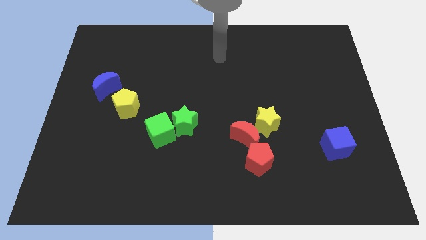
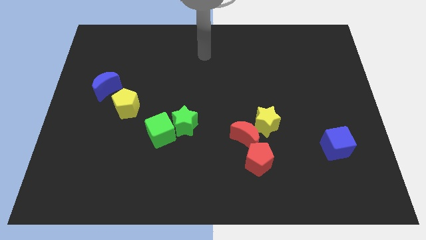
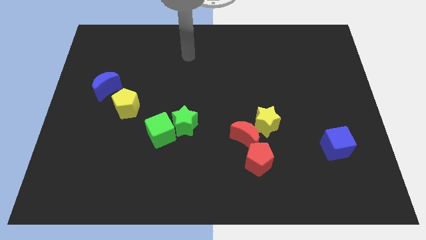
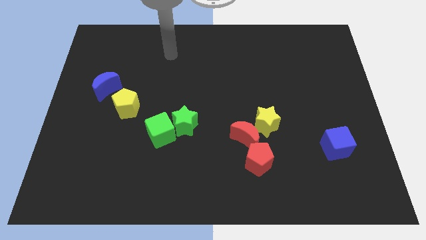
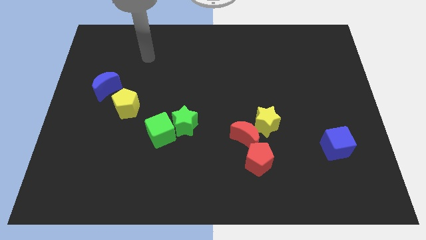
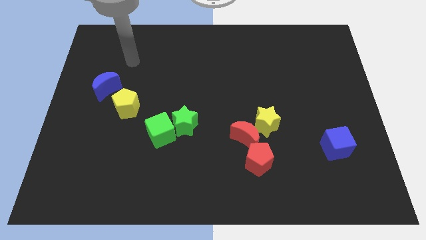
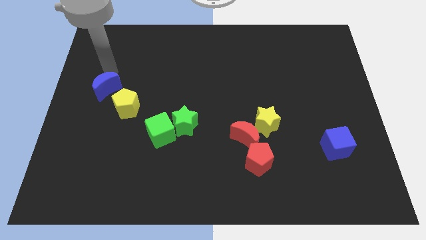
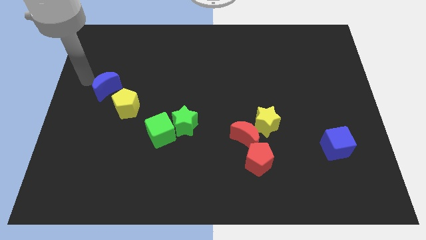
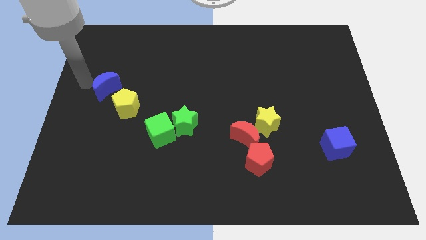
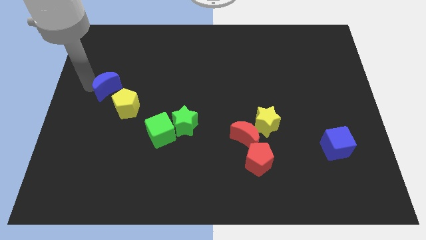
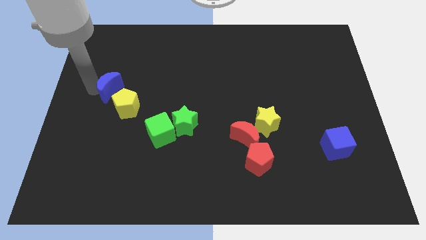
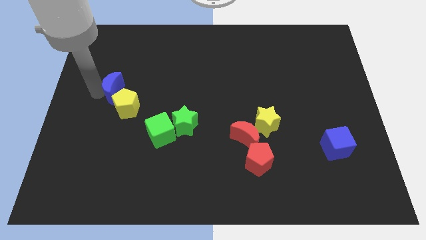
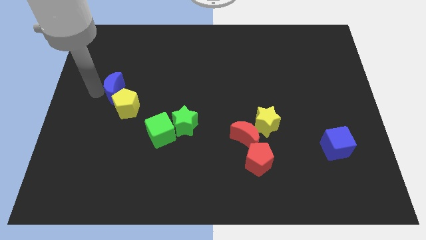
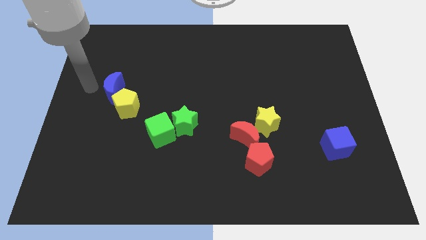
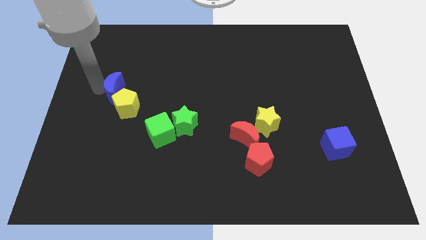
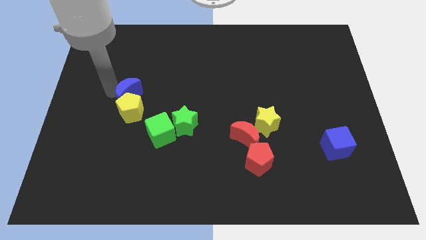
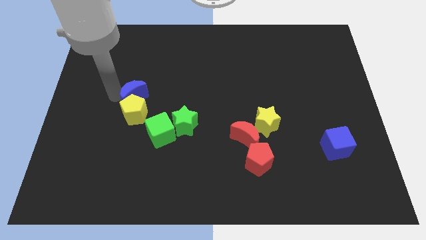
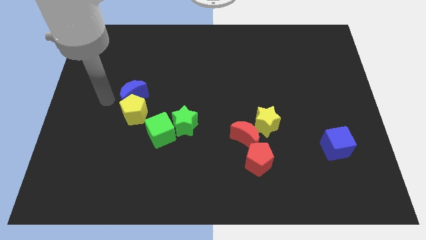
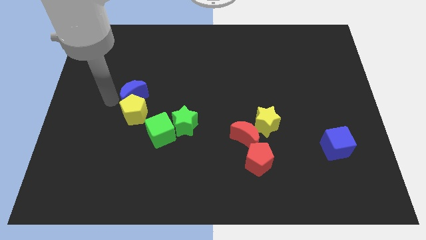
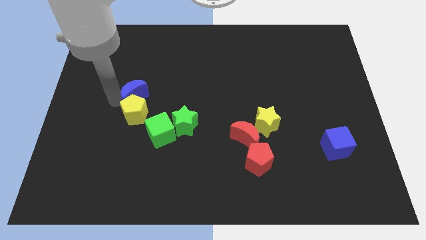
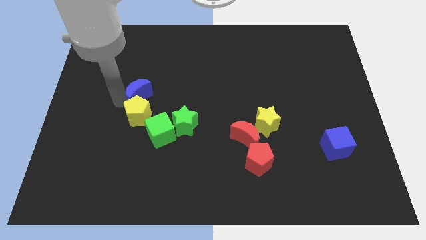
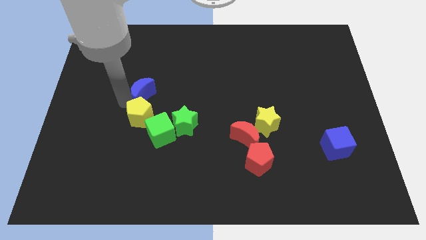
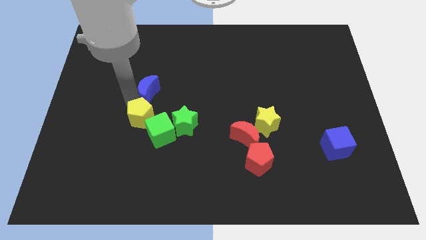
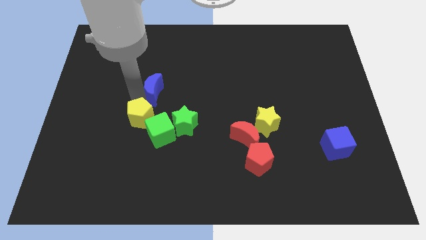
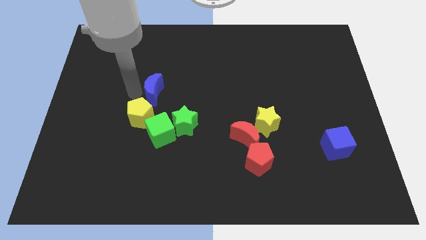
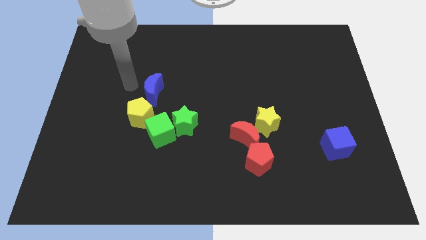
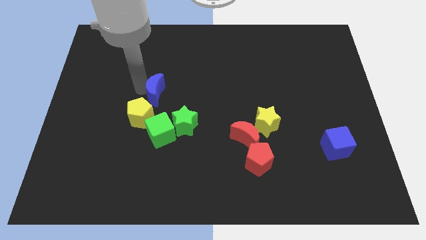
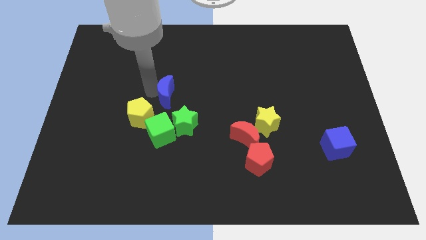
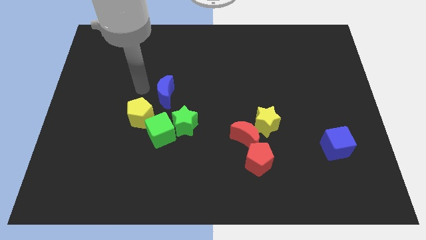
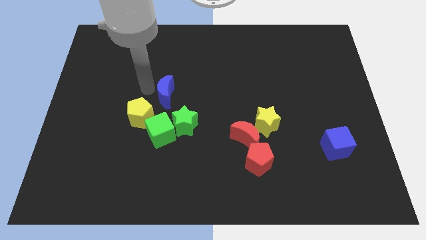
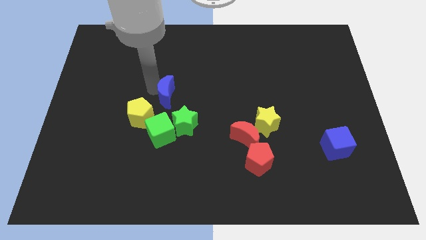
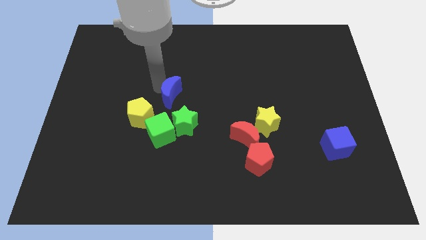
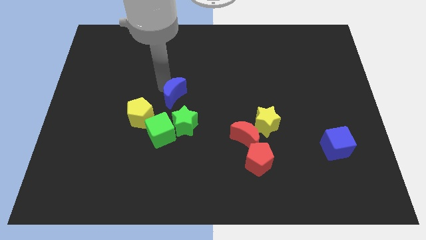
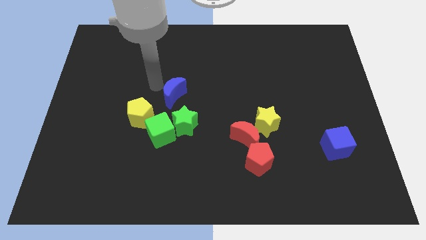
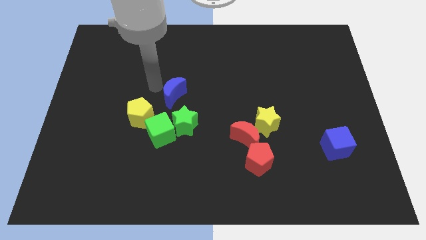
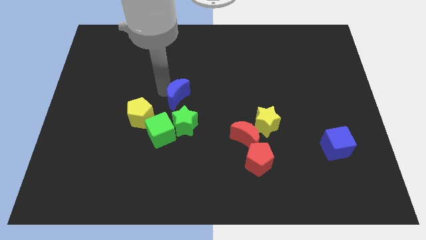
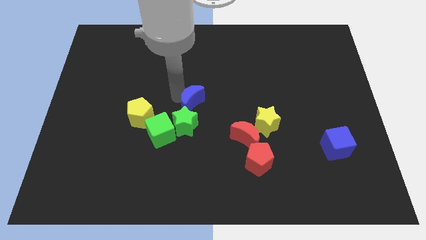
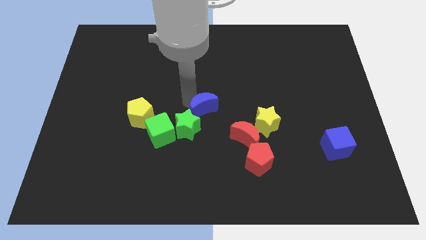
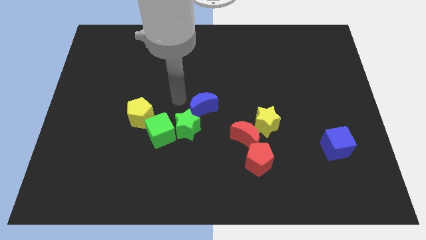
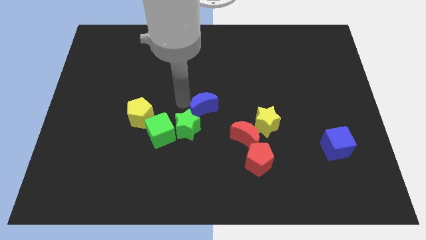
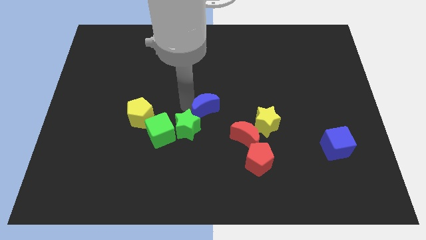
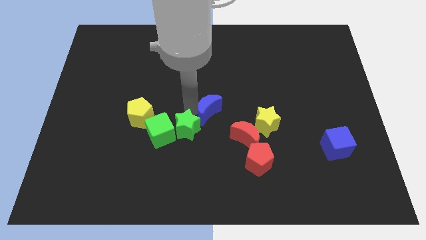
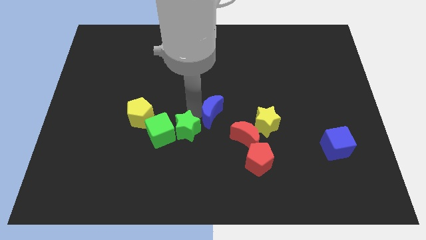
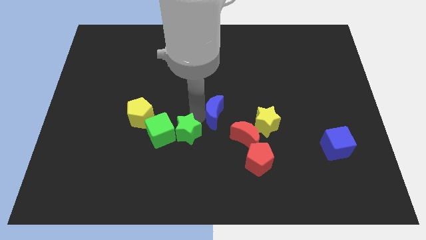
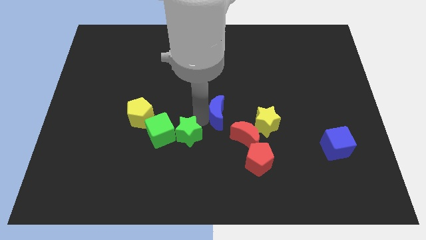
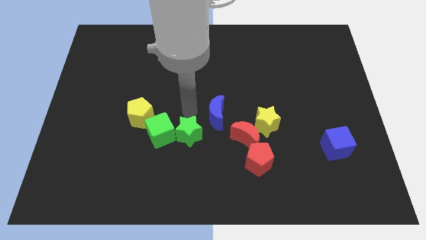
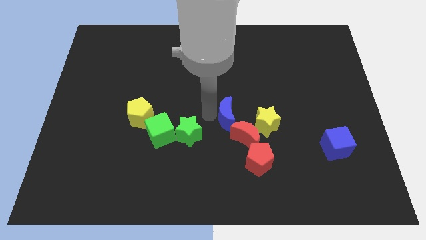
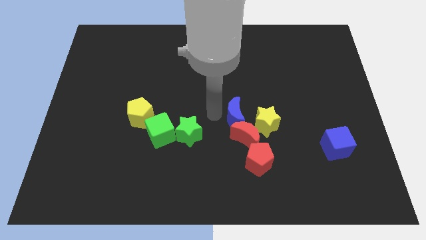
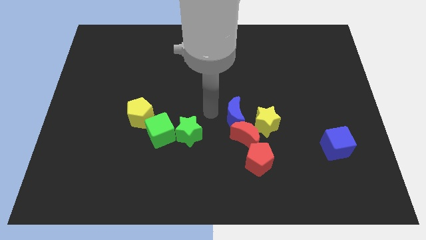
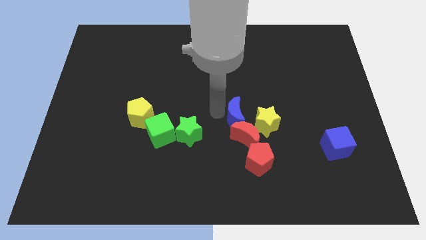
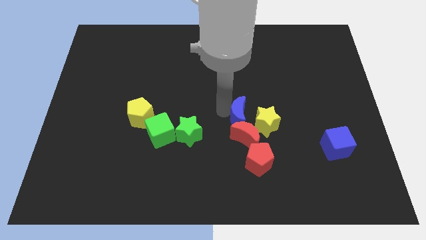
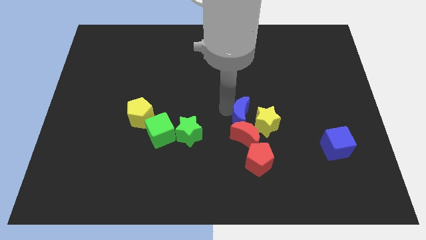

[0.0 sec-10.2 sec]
slide the blue moon to the yellow star

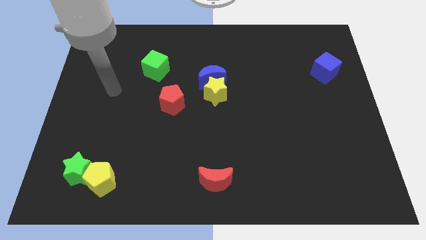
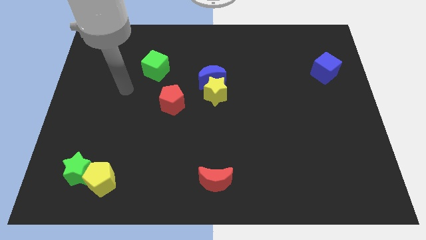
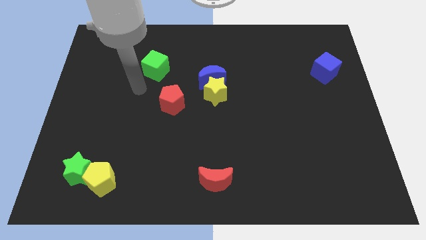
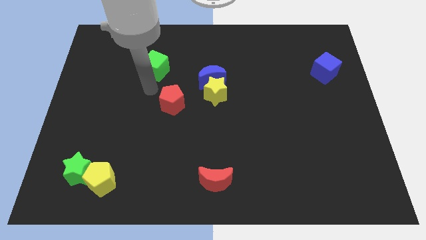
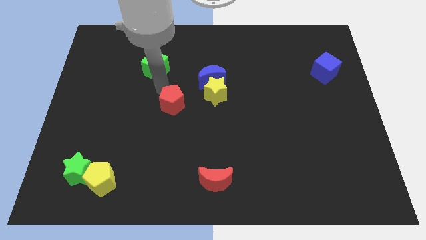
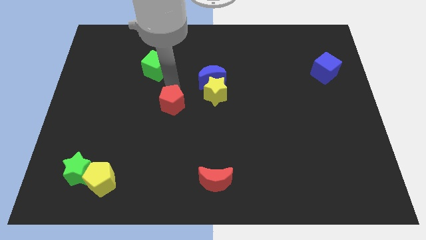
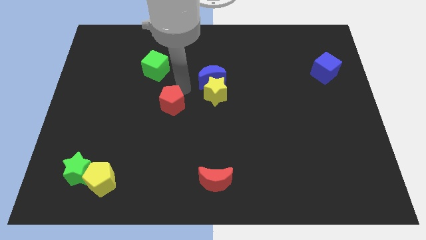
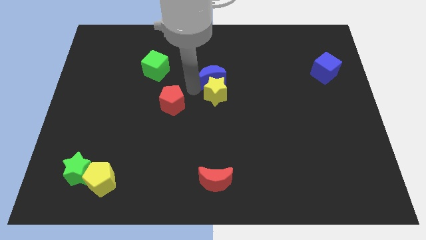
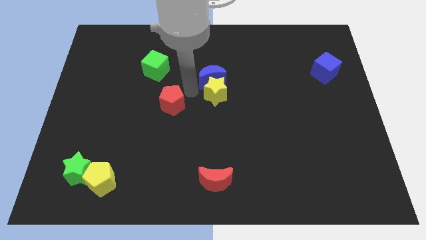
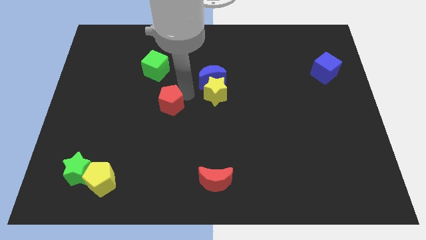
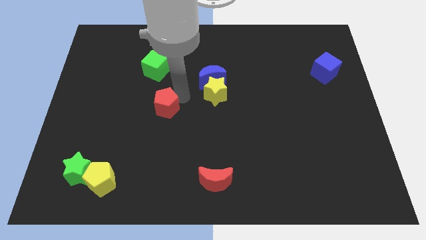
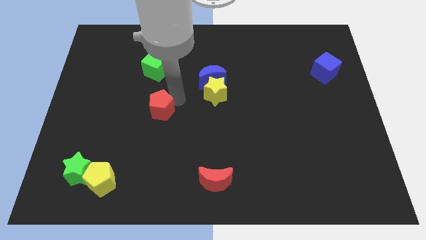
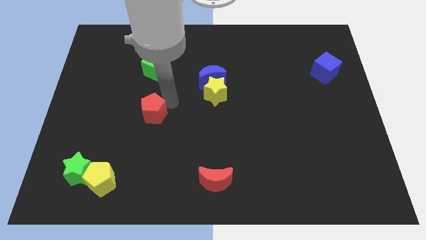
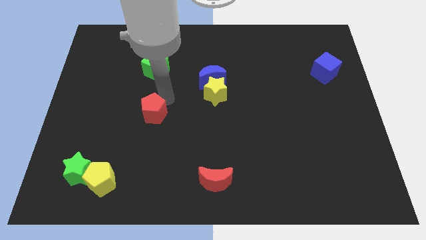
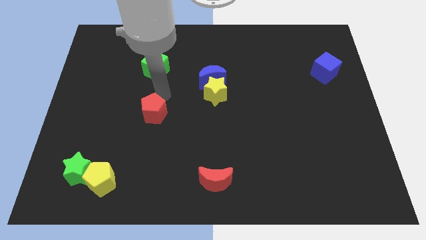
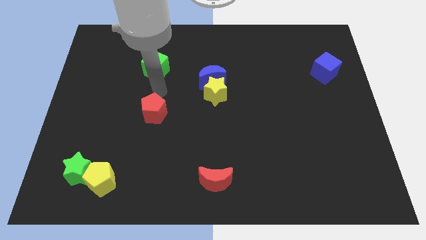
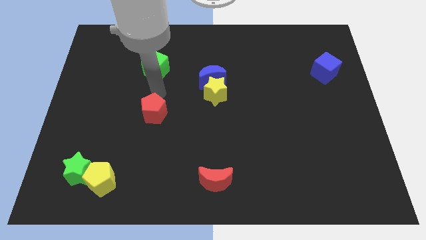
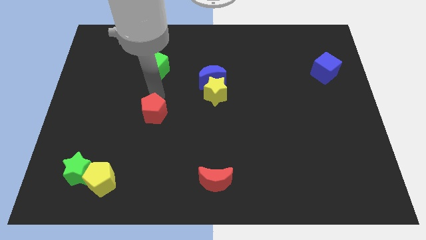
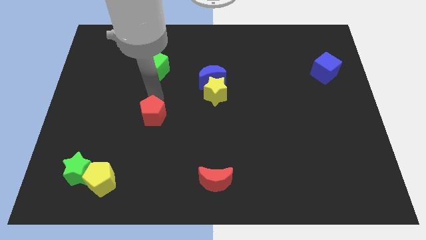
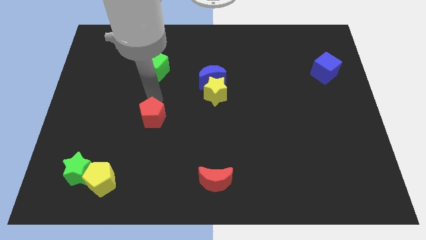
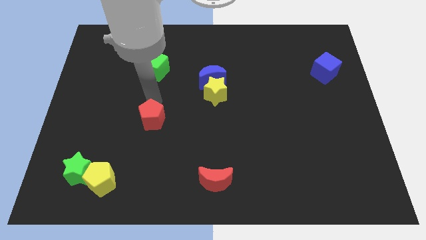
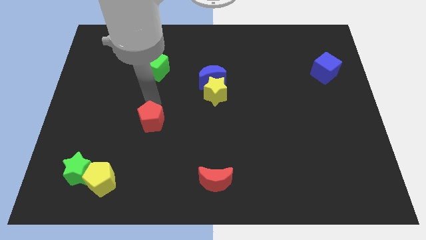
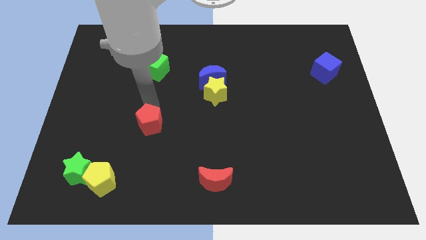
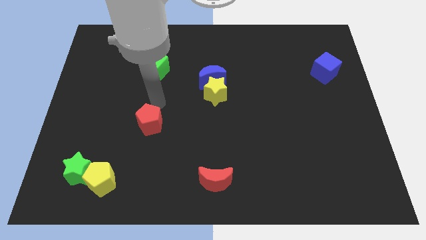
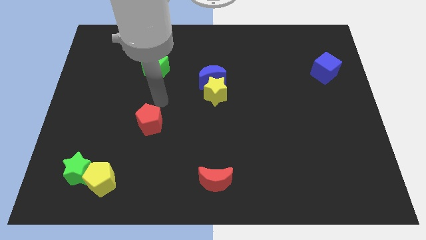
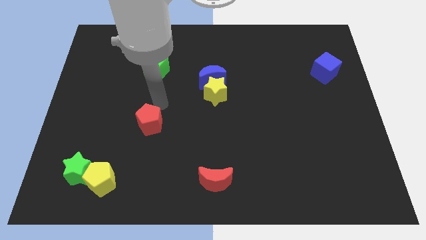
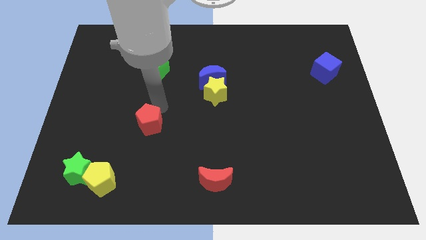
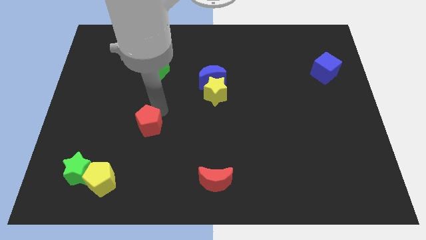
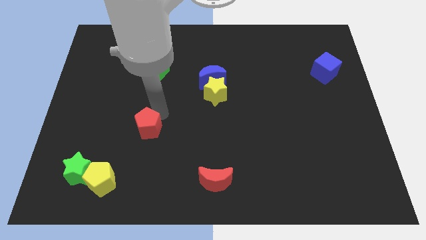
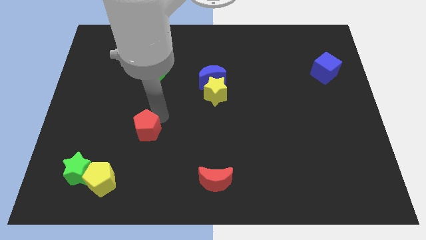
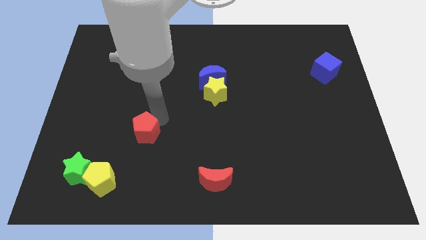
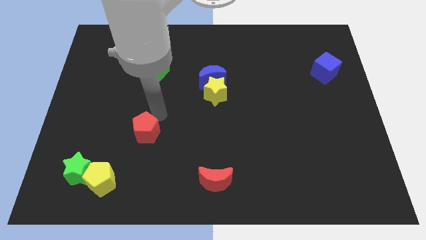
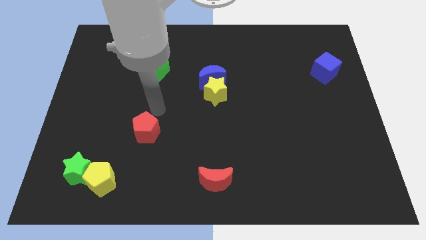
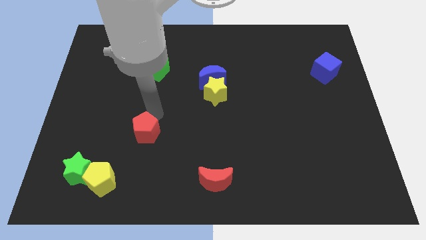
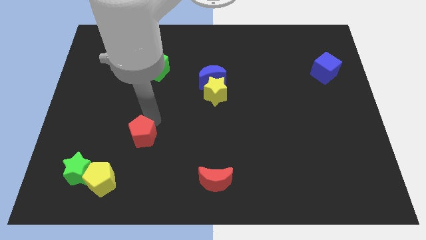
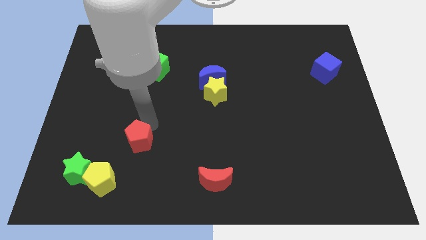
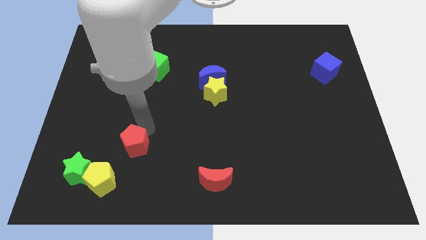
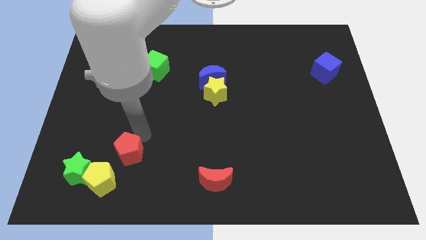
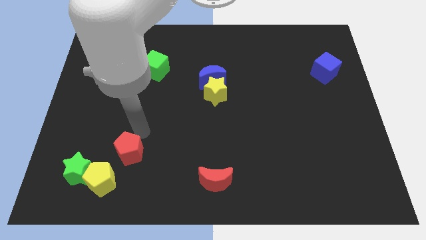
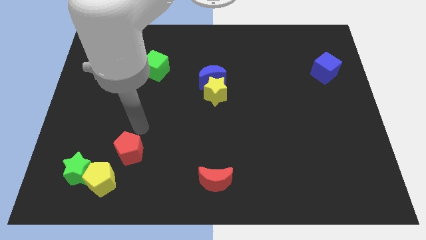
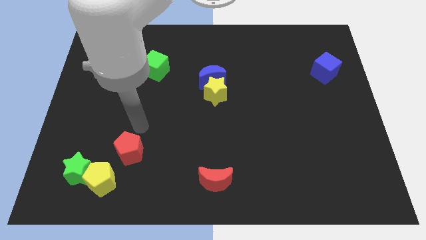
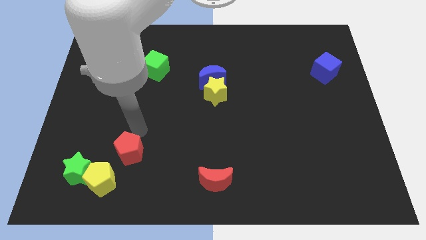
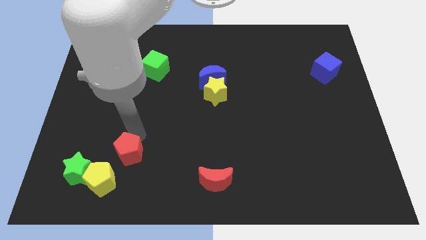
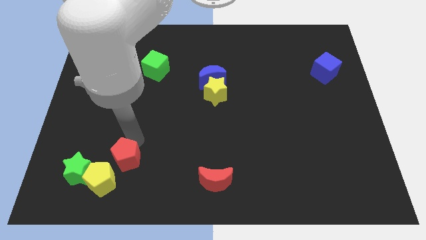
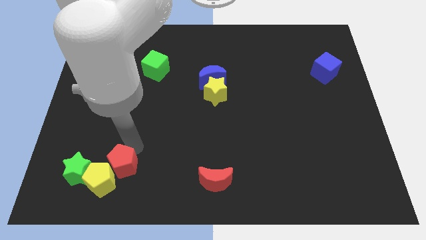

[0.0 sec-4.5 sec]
put the red pentagon to the yellow pentagon
